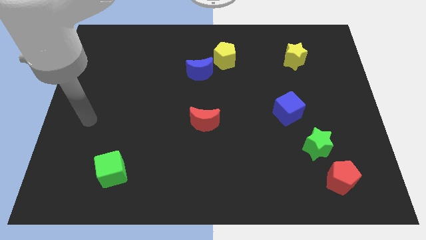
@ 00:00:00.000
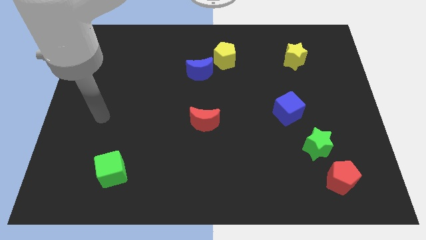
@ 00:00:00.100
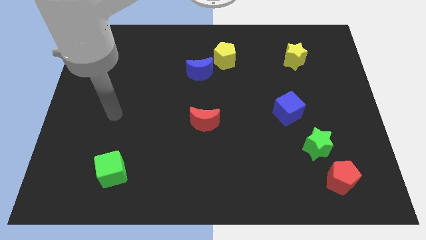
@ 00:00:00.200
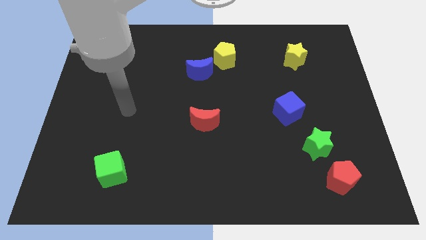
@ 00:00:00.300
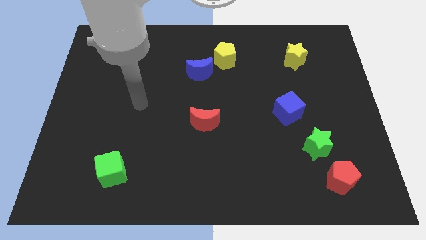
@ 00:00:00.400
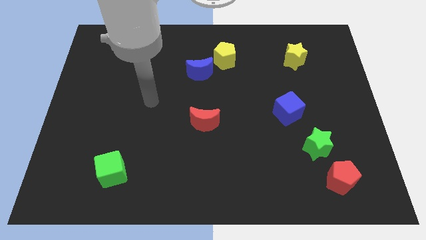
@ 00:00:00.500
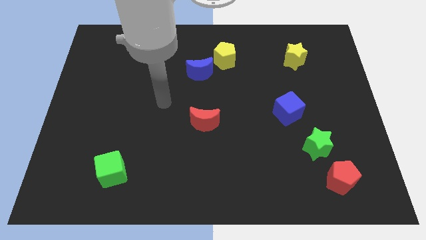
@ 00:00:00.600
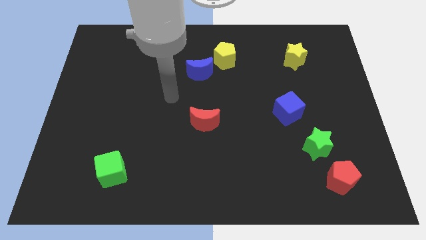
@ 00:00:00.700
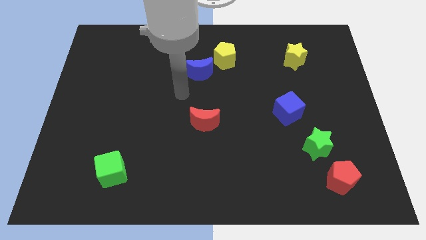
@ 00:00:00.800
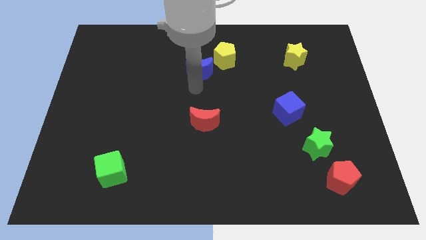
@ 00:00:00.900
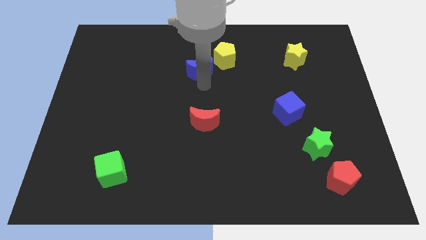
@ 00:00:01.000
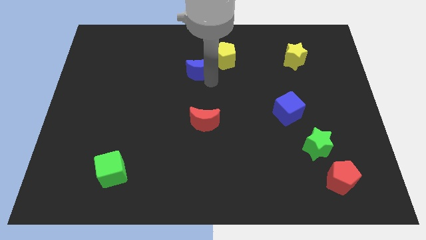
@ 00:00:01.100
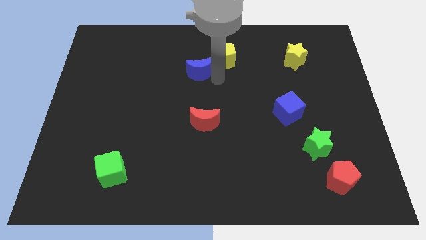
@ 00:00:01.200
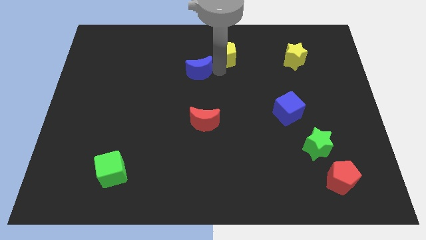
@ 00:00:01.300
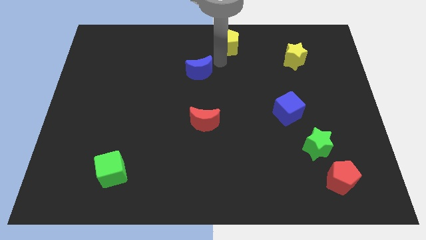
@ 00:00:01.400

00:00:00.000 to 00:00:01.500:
move the blue moon away from the yellow pentagon

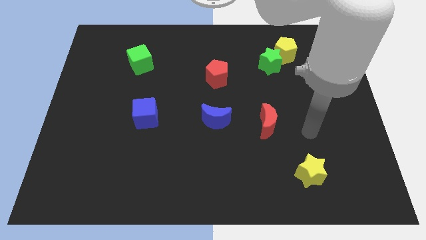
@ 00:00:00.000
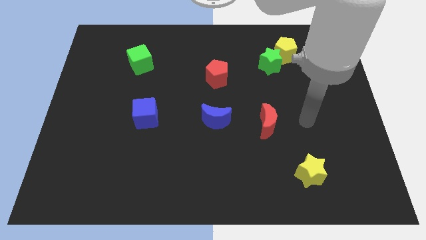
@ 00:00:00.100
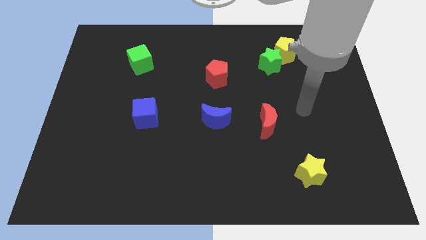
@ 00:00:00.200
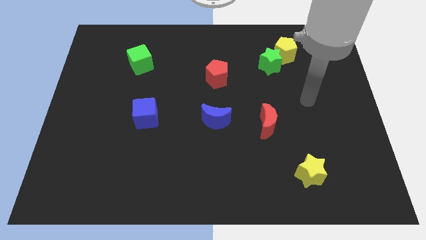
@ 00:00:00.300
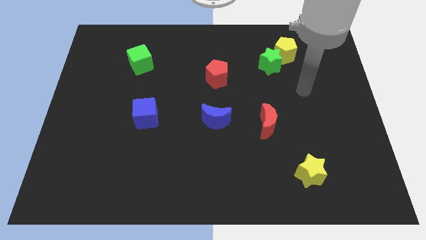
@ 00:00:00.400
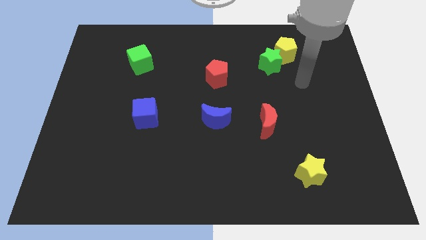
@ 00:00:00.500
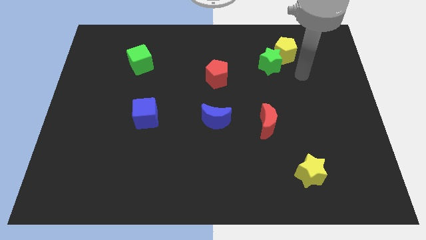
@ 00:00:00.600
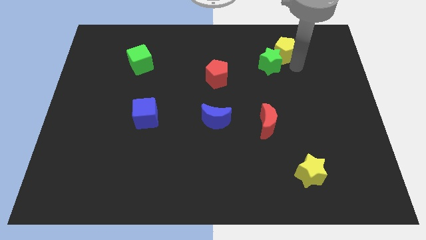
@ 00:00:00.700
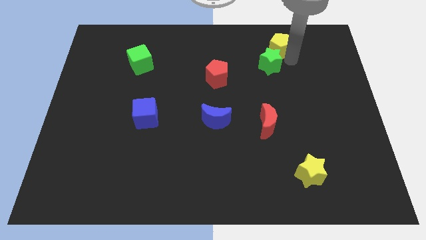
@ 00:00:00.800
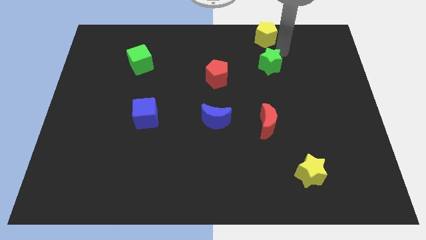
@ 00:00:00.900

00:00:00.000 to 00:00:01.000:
move the green star away from the yellow pentagon

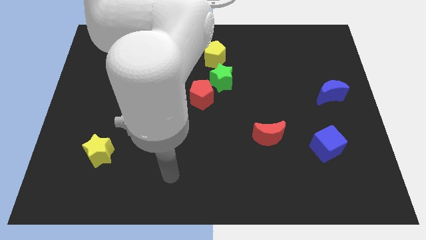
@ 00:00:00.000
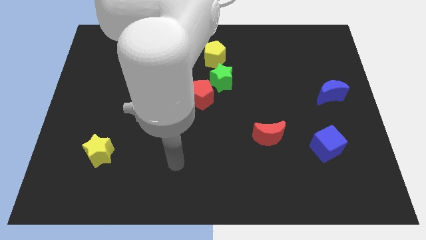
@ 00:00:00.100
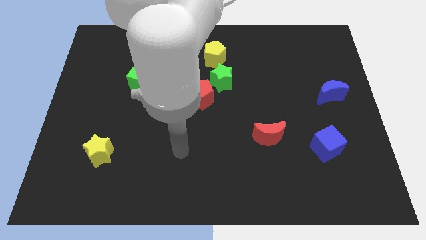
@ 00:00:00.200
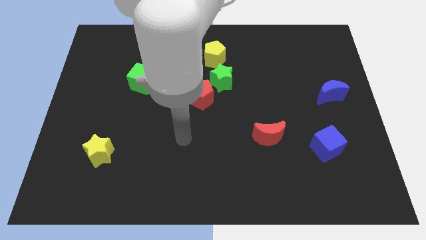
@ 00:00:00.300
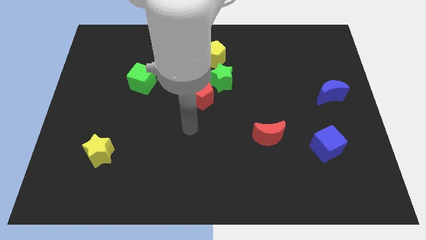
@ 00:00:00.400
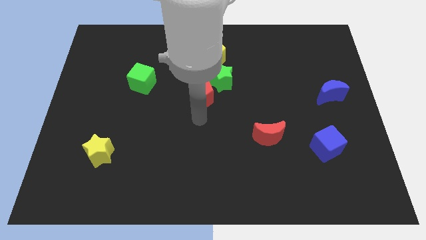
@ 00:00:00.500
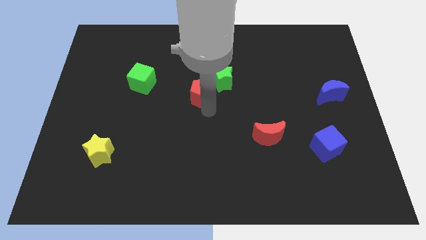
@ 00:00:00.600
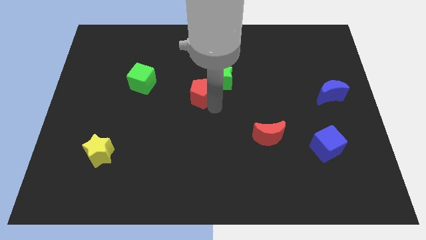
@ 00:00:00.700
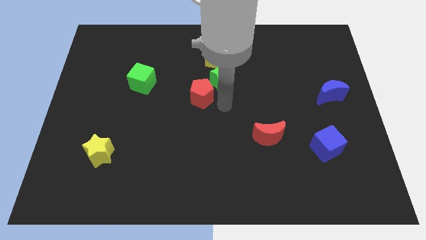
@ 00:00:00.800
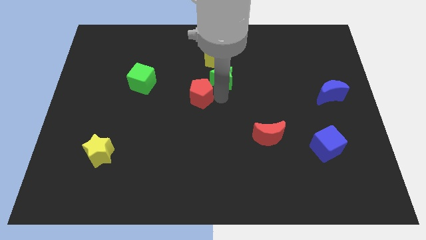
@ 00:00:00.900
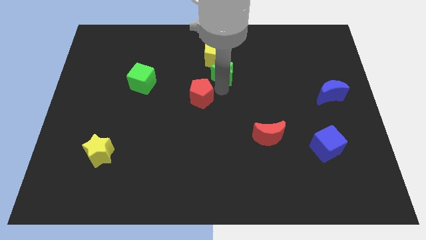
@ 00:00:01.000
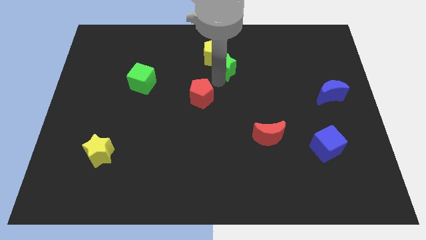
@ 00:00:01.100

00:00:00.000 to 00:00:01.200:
separate the red pentagon from the green star

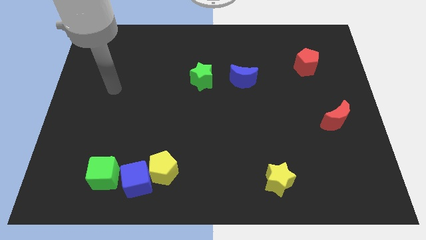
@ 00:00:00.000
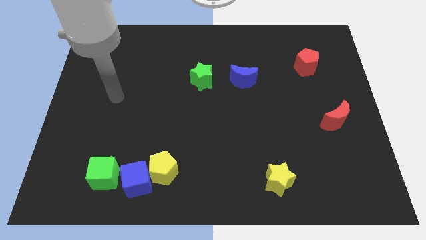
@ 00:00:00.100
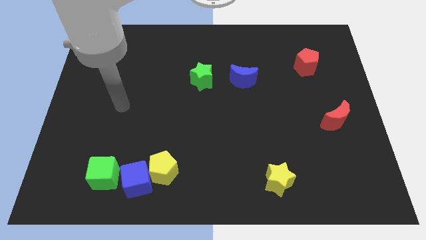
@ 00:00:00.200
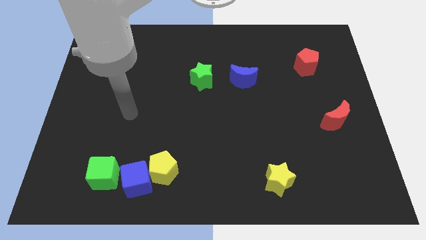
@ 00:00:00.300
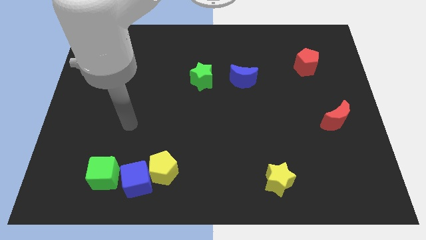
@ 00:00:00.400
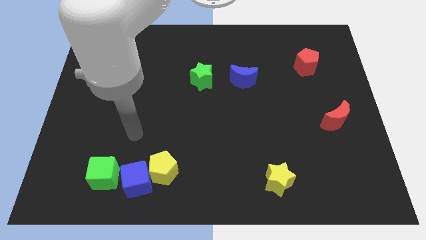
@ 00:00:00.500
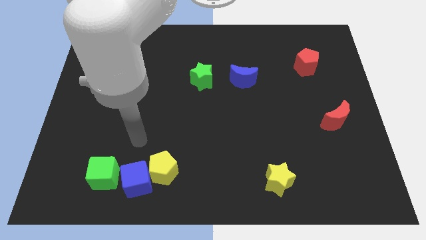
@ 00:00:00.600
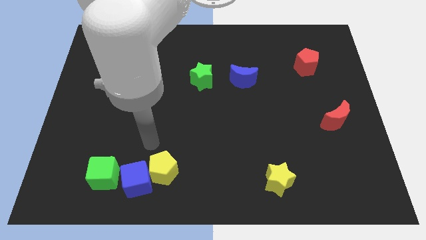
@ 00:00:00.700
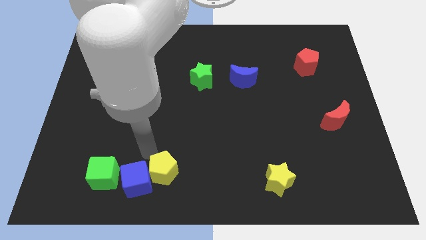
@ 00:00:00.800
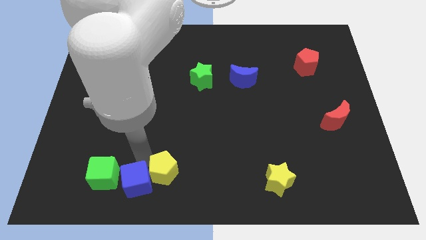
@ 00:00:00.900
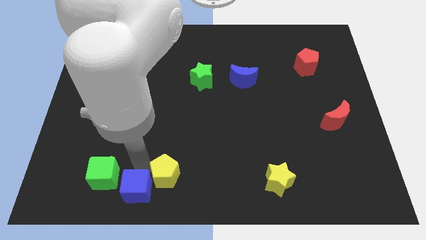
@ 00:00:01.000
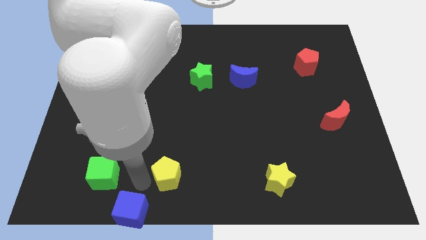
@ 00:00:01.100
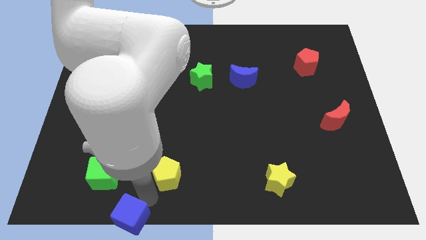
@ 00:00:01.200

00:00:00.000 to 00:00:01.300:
move the yellow pentagon away from the blue cube

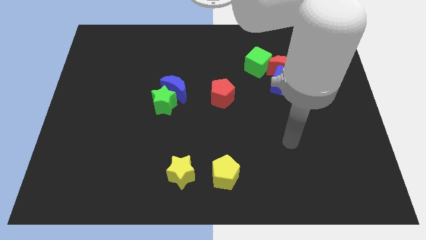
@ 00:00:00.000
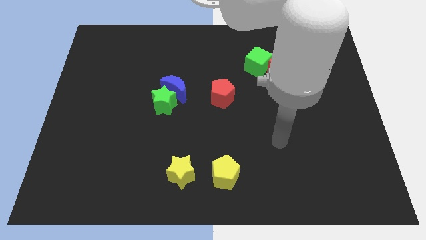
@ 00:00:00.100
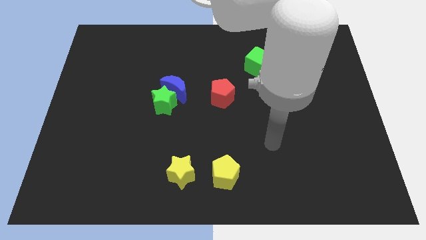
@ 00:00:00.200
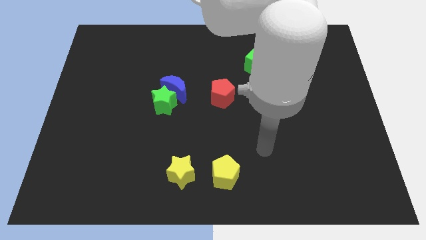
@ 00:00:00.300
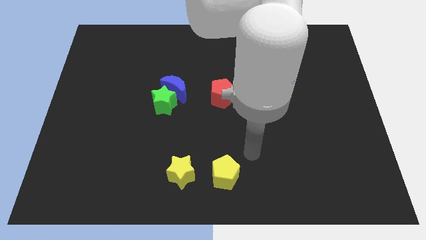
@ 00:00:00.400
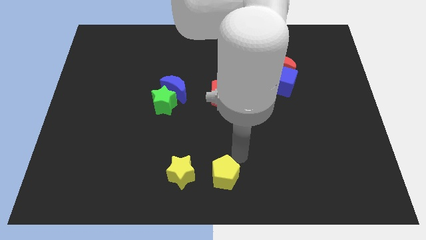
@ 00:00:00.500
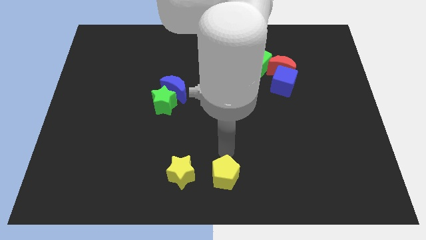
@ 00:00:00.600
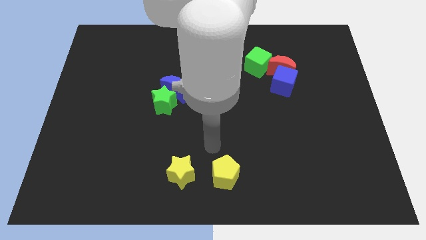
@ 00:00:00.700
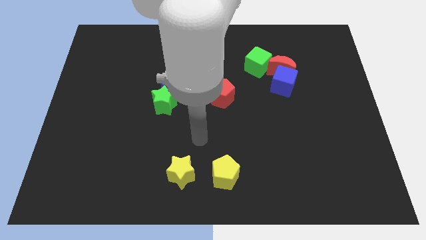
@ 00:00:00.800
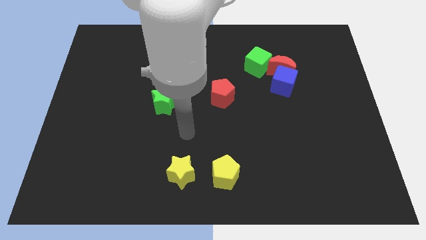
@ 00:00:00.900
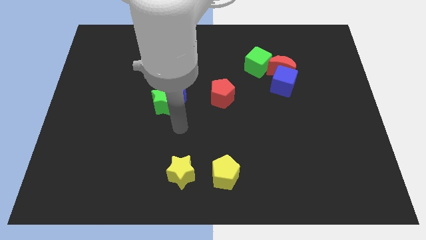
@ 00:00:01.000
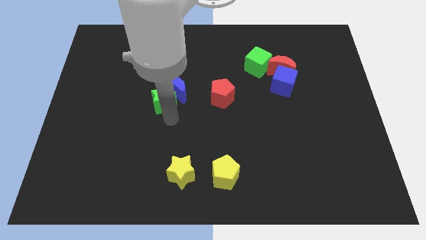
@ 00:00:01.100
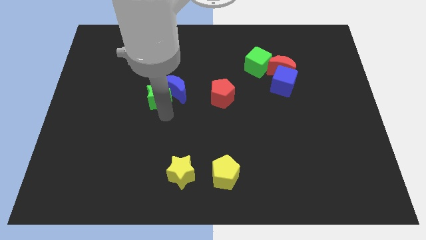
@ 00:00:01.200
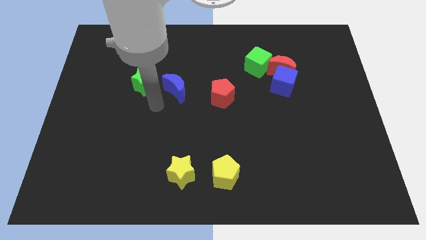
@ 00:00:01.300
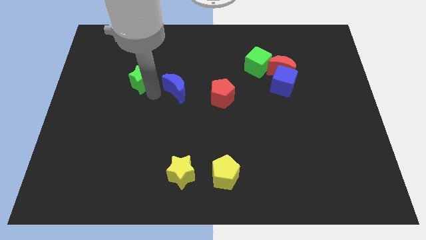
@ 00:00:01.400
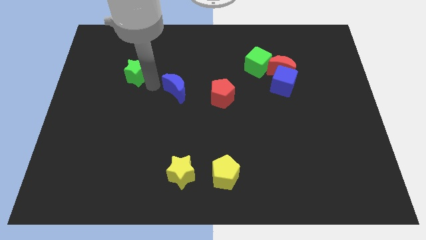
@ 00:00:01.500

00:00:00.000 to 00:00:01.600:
pull the blue moon apart from the green star

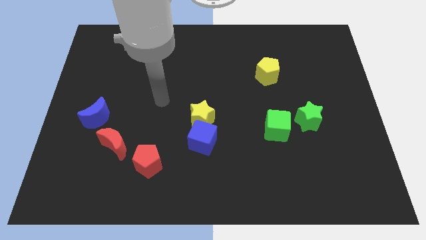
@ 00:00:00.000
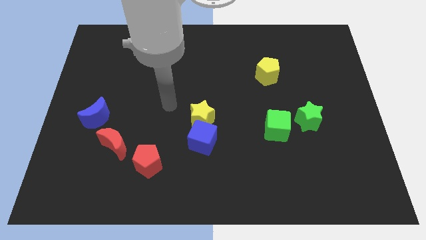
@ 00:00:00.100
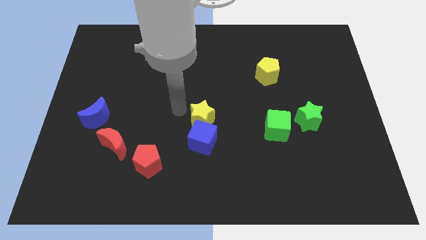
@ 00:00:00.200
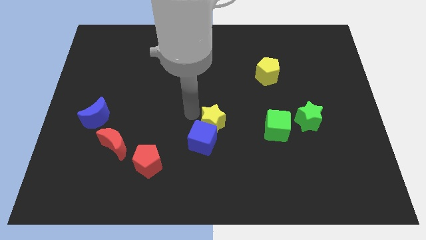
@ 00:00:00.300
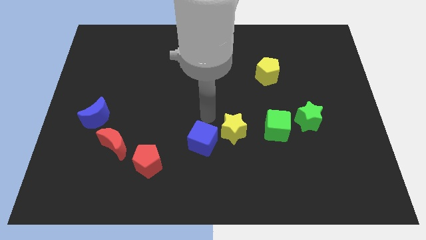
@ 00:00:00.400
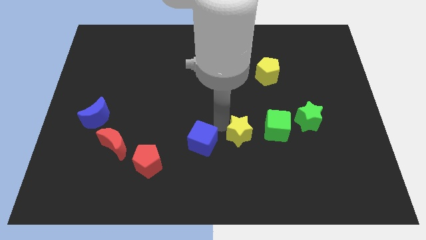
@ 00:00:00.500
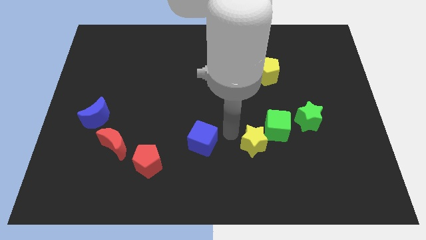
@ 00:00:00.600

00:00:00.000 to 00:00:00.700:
separate the blue cube from the yellow star

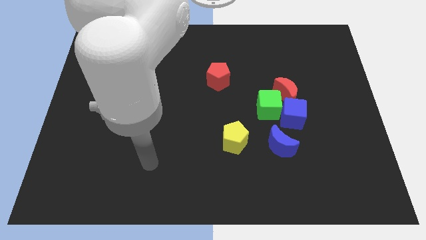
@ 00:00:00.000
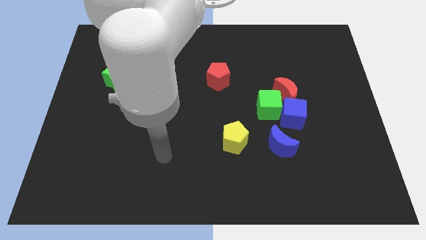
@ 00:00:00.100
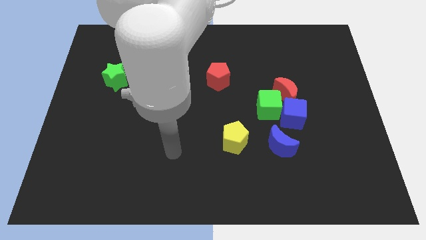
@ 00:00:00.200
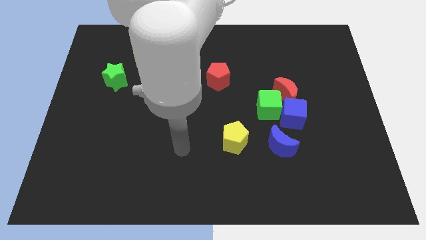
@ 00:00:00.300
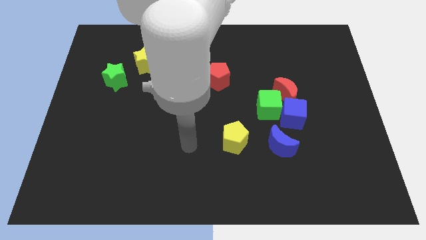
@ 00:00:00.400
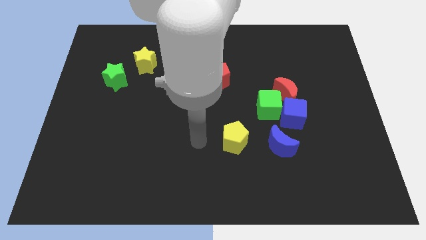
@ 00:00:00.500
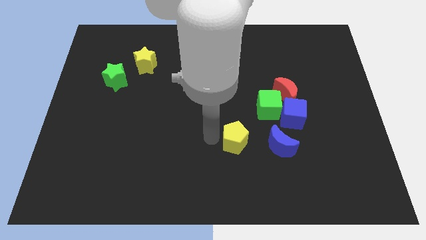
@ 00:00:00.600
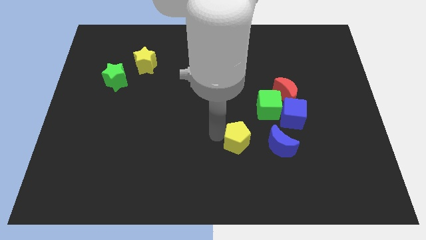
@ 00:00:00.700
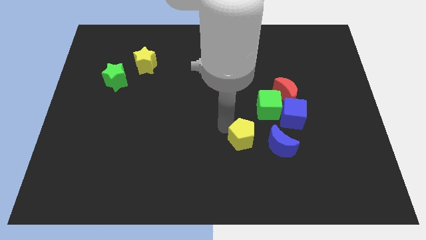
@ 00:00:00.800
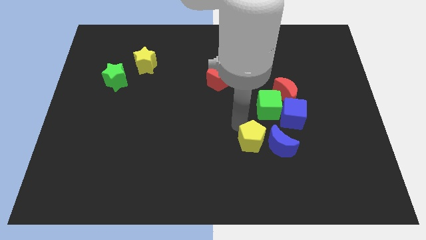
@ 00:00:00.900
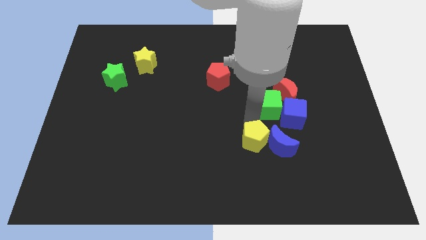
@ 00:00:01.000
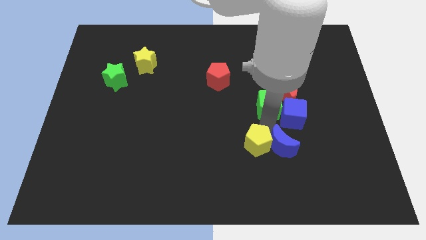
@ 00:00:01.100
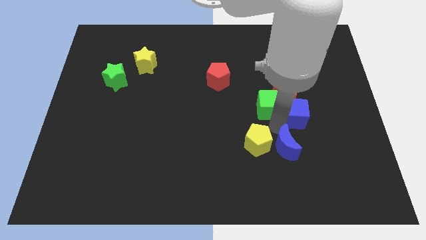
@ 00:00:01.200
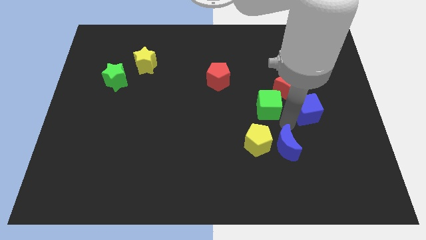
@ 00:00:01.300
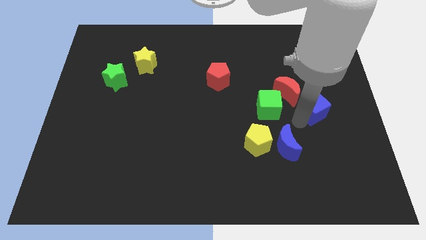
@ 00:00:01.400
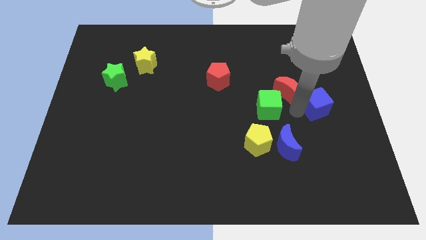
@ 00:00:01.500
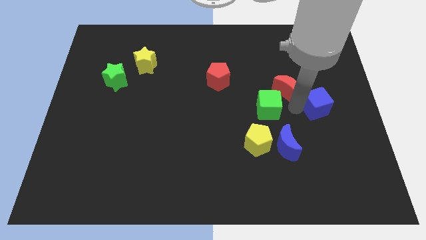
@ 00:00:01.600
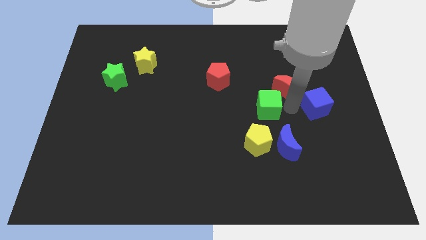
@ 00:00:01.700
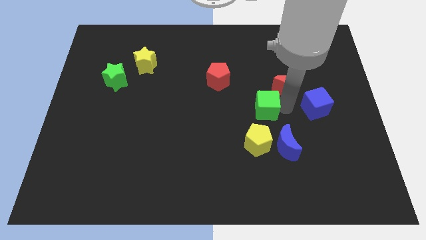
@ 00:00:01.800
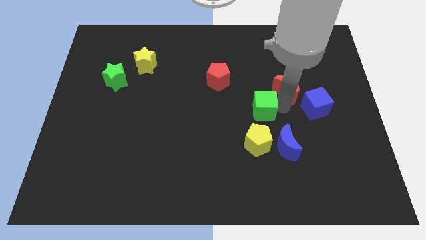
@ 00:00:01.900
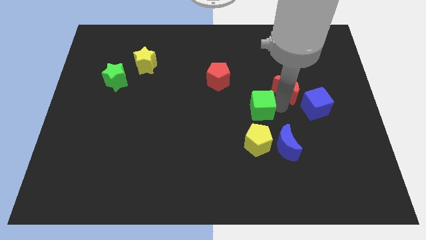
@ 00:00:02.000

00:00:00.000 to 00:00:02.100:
separate the green cube from the blue cube and red moon
